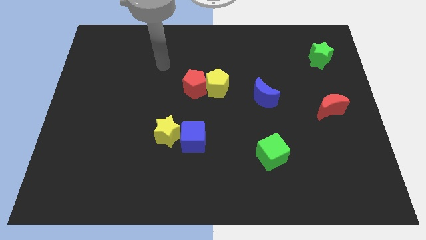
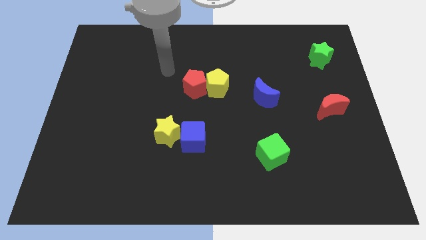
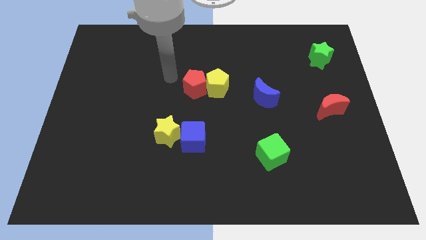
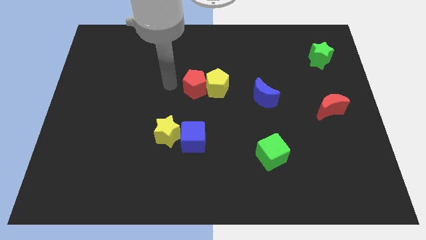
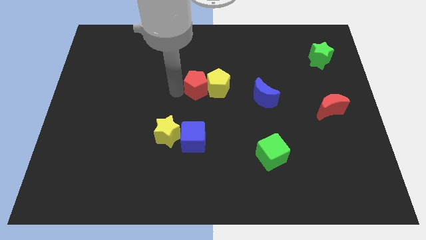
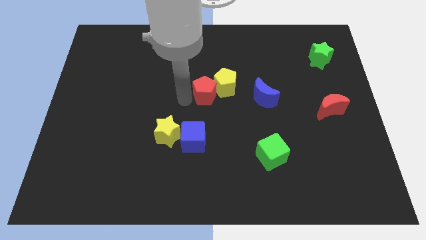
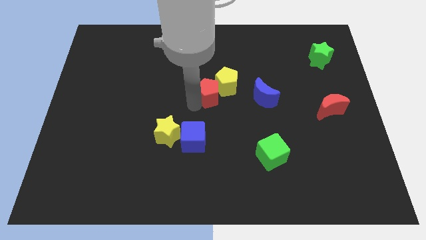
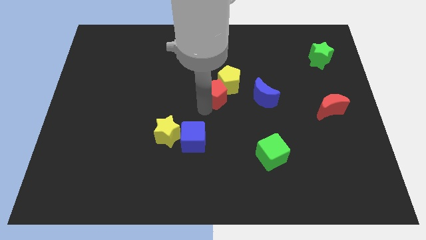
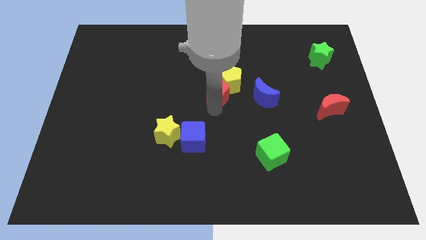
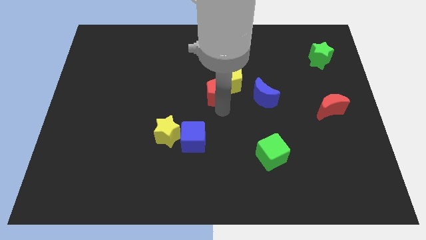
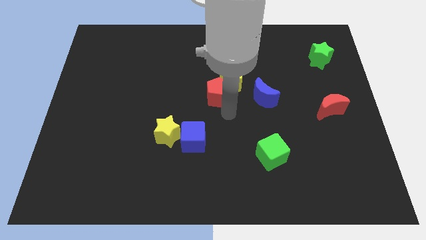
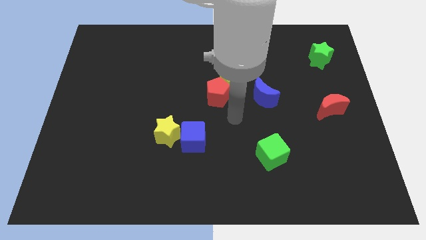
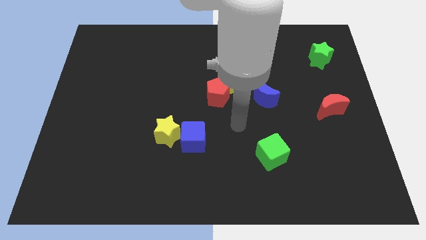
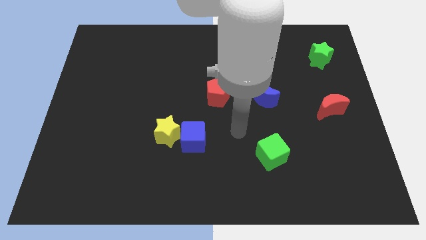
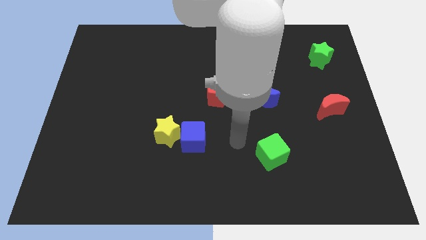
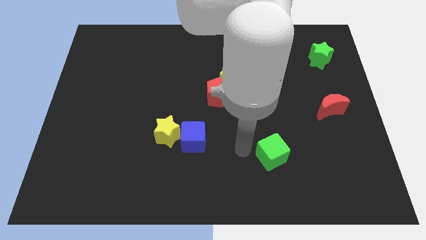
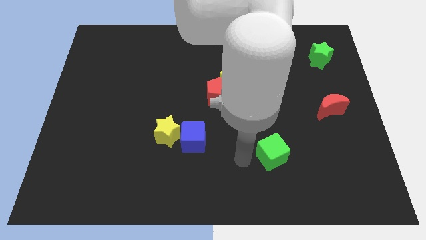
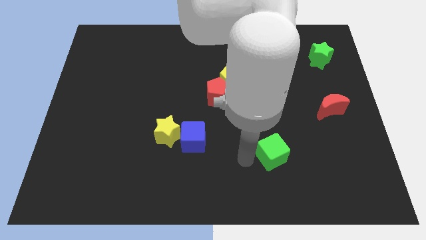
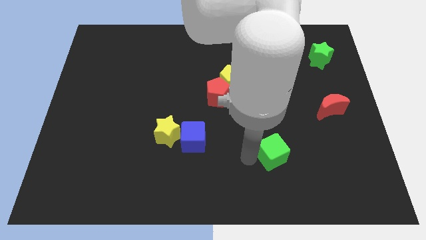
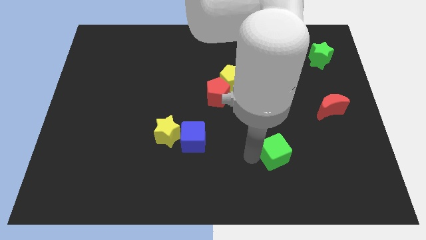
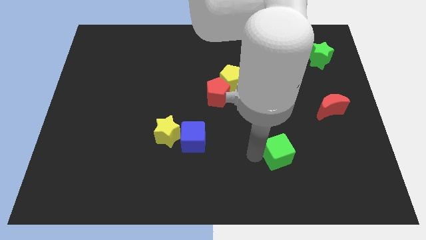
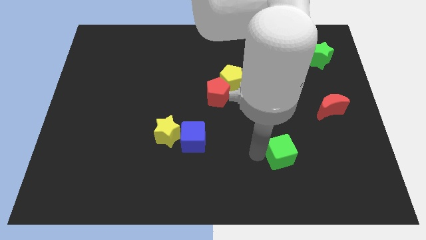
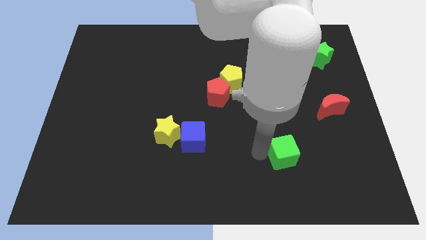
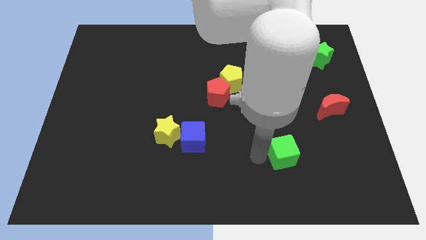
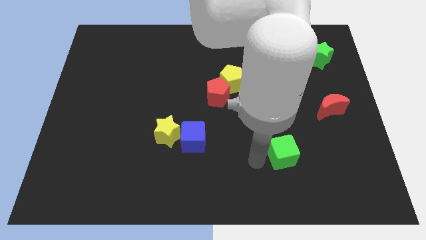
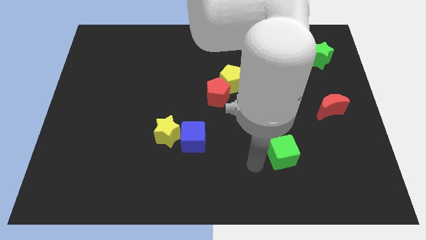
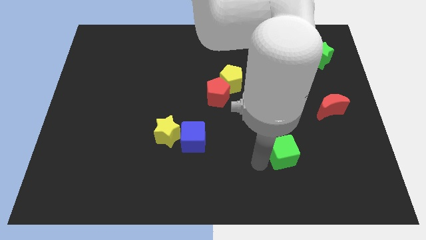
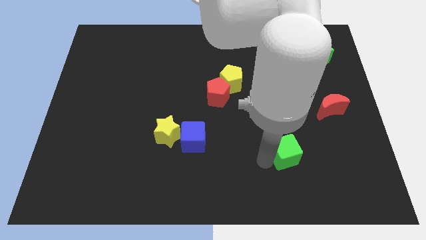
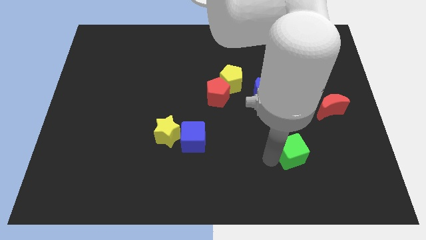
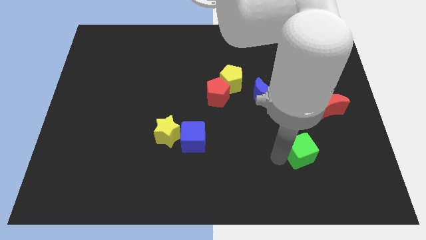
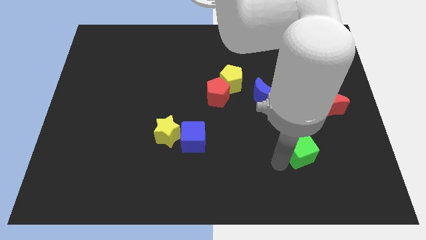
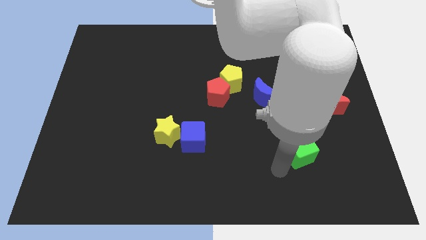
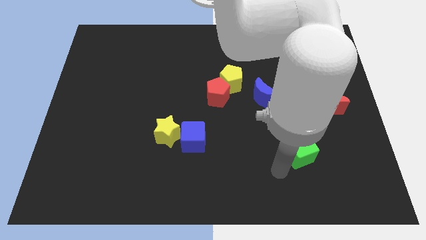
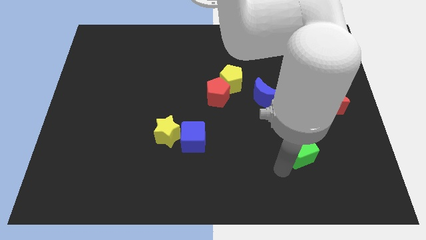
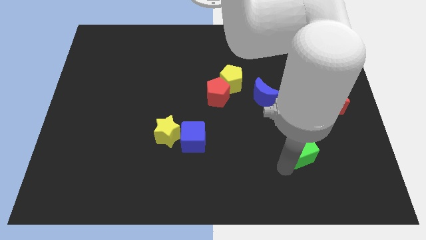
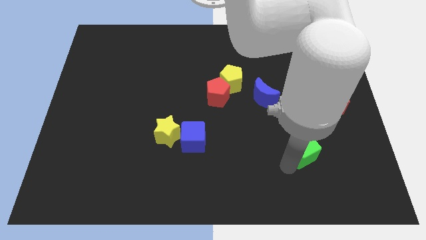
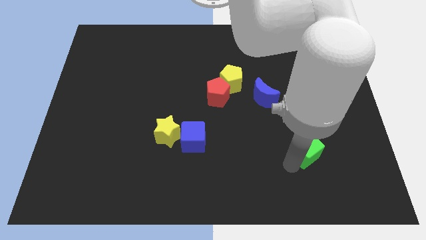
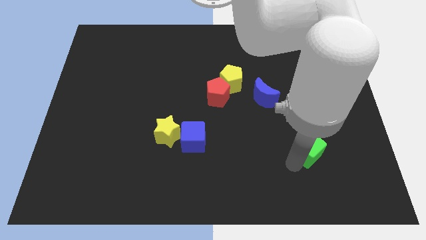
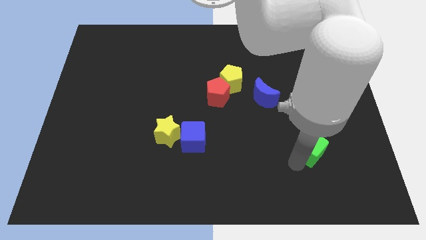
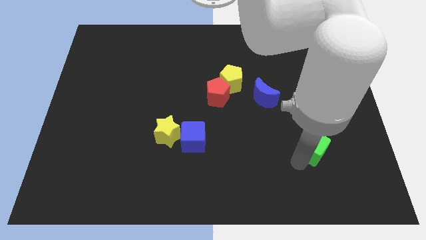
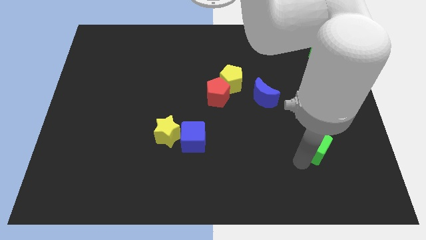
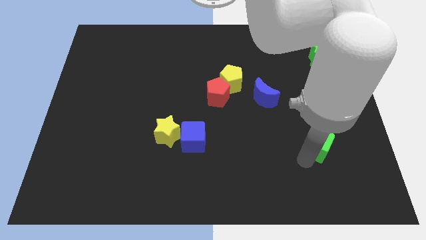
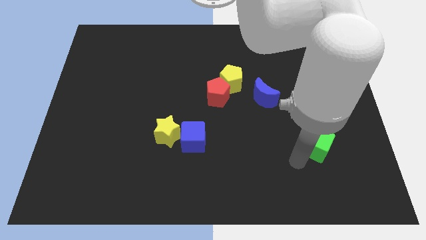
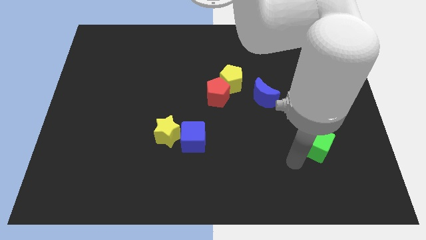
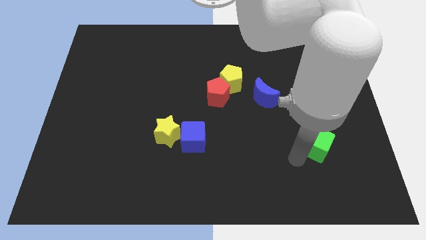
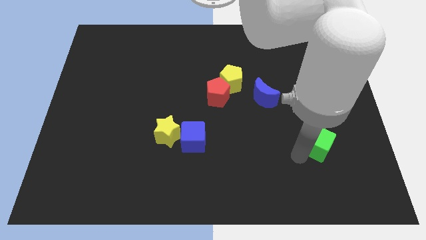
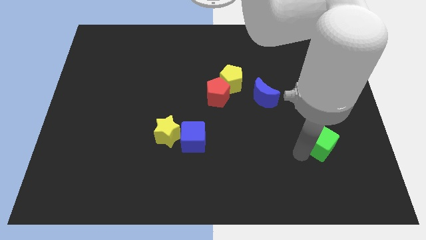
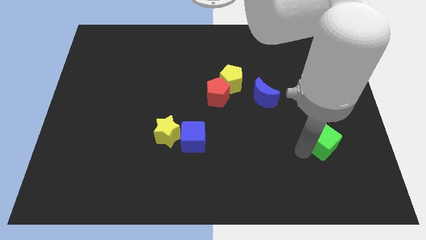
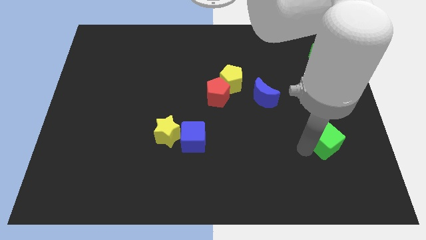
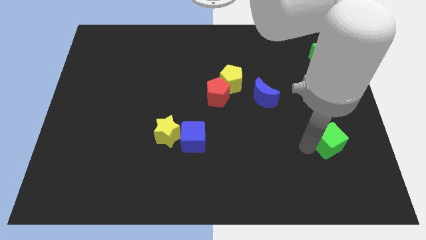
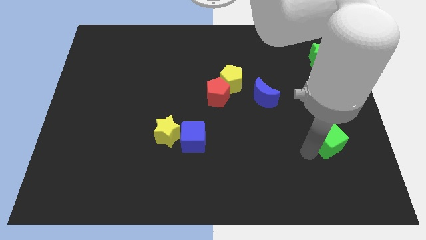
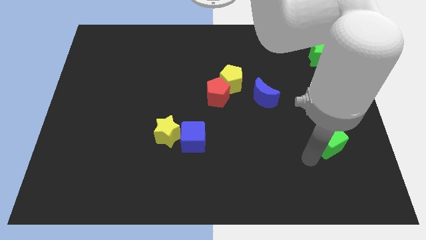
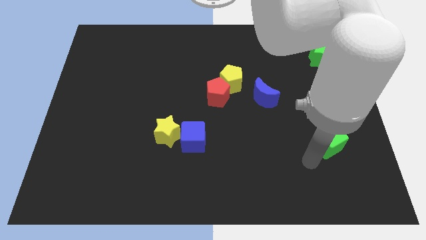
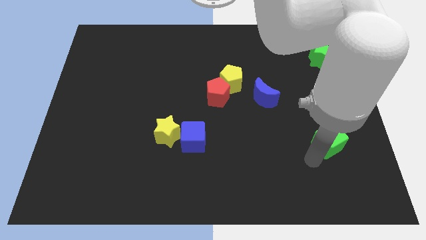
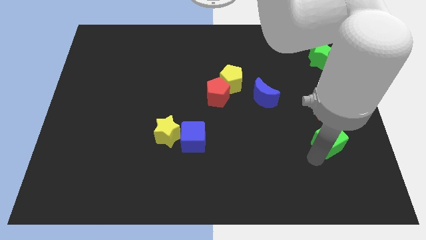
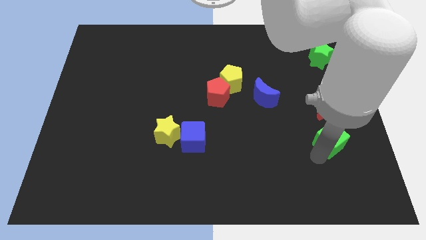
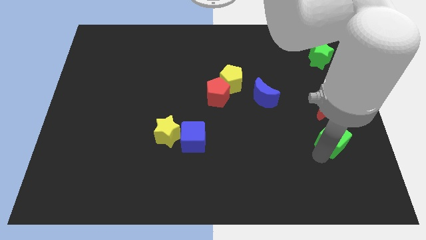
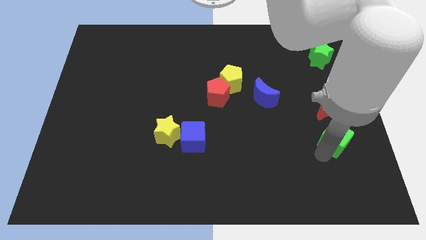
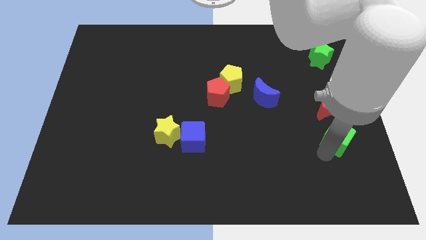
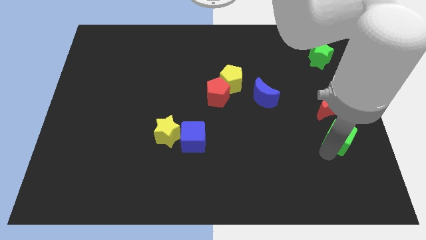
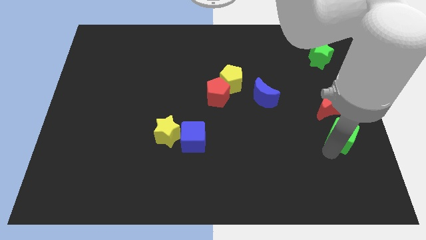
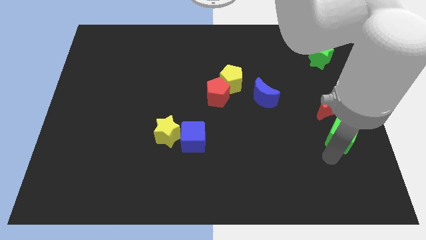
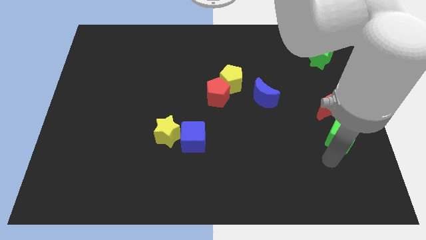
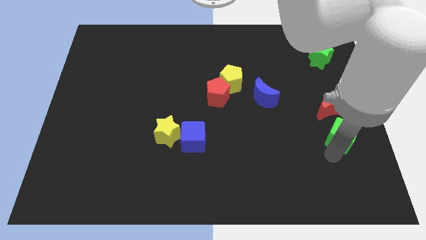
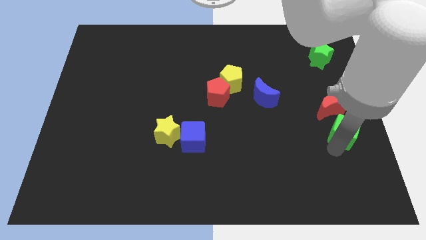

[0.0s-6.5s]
move the green cube to the right side
